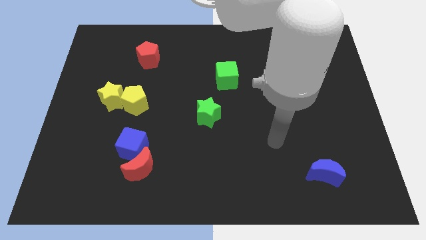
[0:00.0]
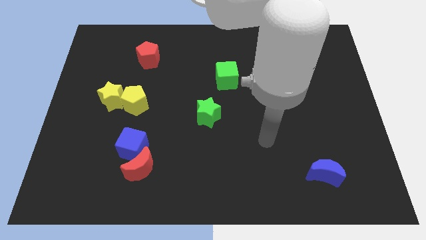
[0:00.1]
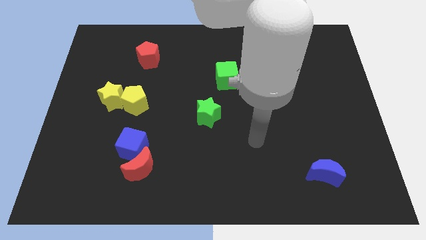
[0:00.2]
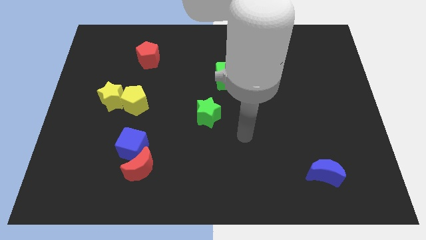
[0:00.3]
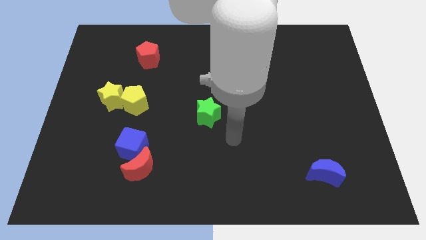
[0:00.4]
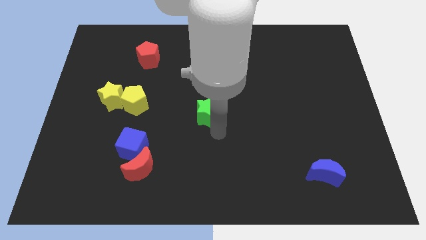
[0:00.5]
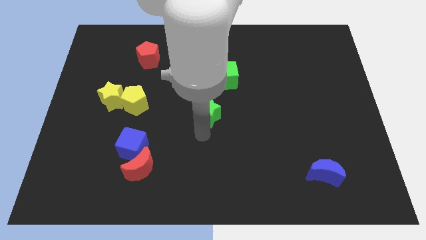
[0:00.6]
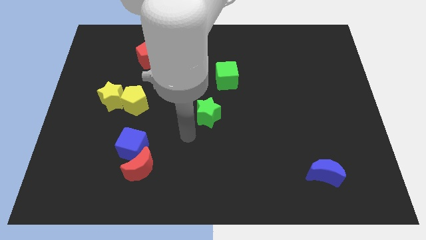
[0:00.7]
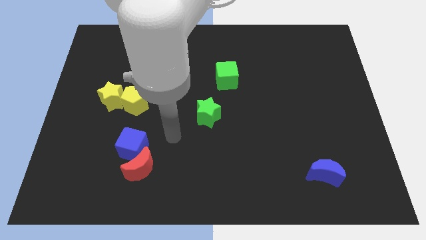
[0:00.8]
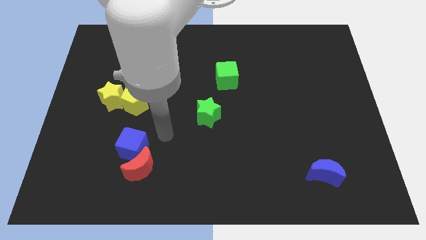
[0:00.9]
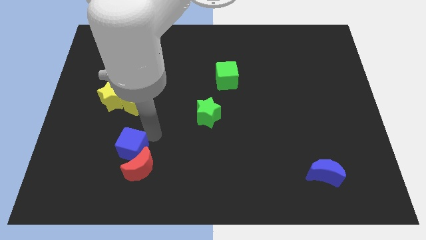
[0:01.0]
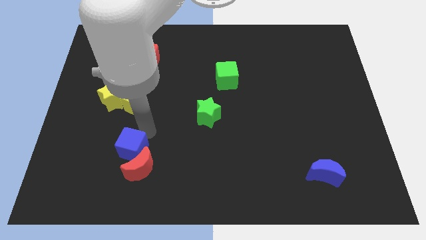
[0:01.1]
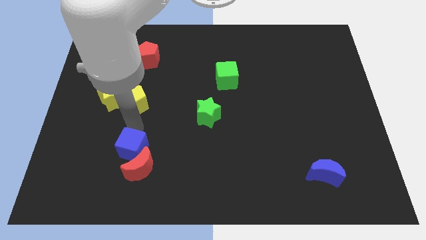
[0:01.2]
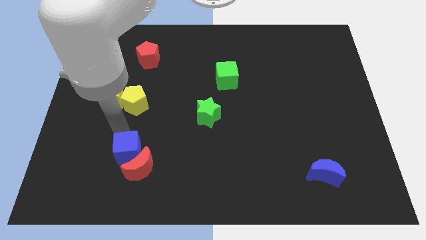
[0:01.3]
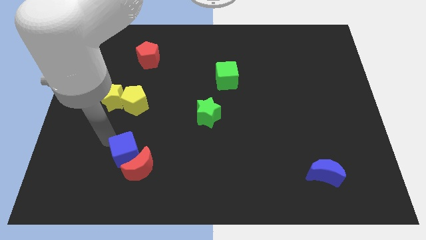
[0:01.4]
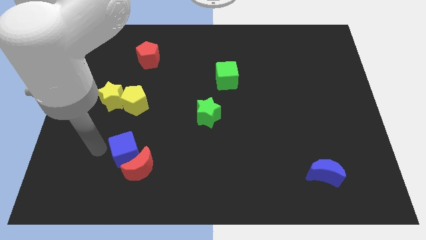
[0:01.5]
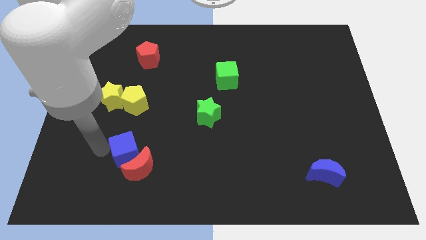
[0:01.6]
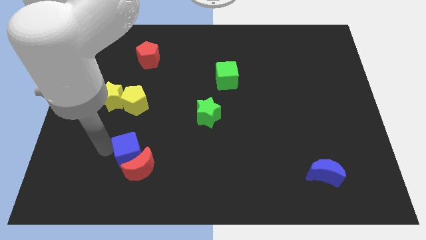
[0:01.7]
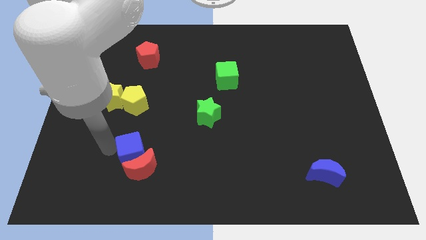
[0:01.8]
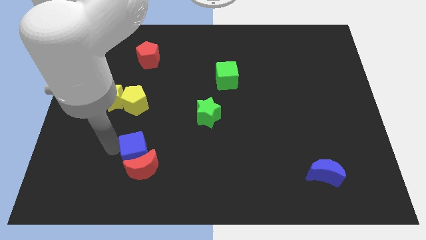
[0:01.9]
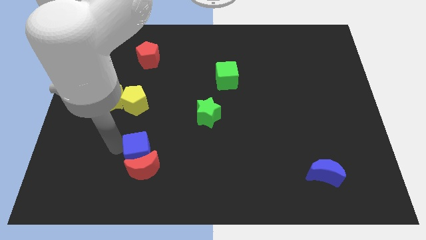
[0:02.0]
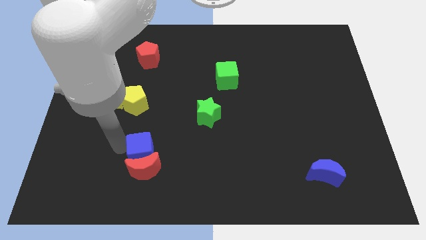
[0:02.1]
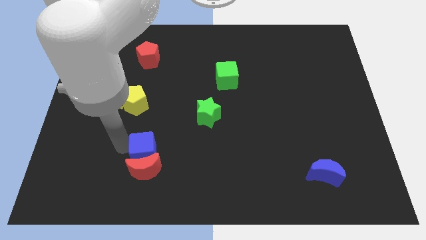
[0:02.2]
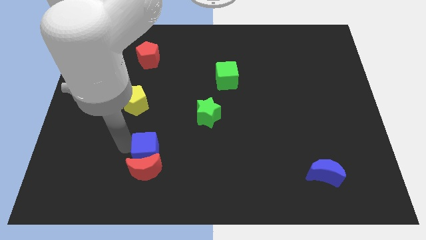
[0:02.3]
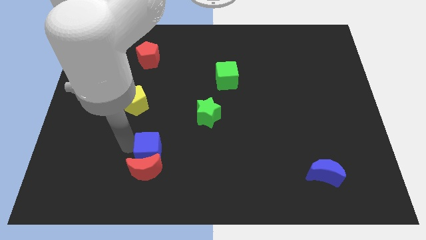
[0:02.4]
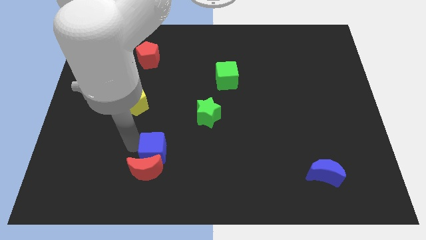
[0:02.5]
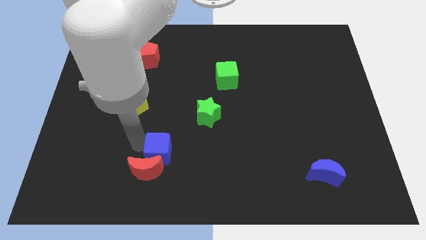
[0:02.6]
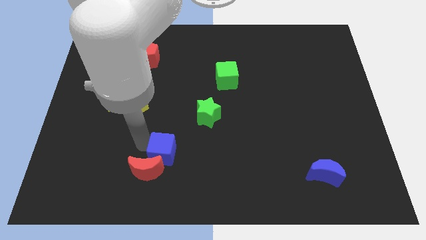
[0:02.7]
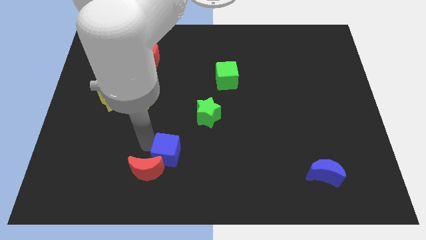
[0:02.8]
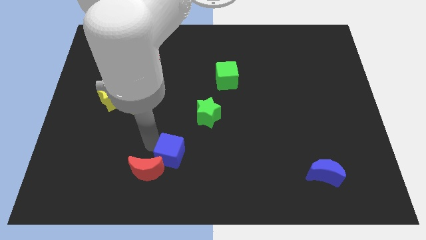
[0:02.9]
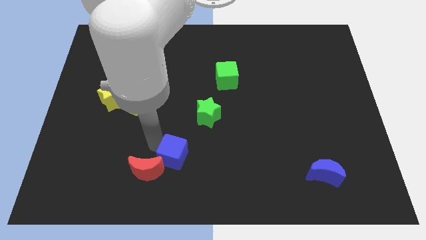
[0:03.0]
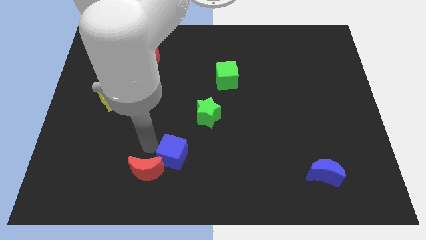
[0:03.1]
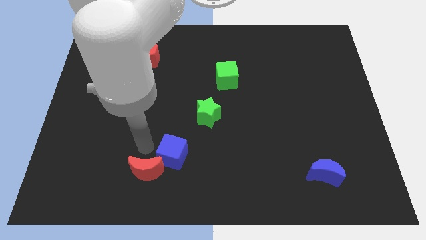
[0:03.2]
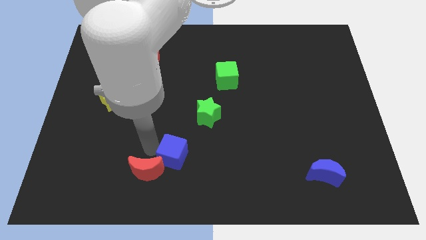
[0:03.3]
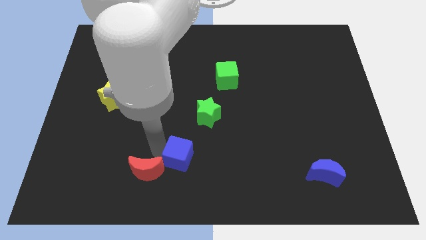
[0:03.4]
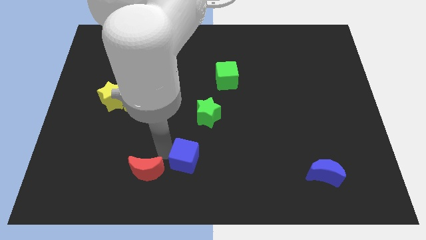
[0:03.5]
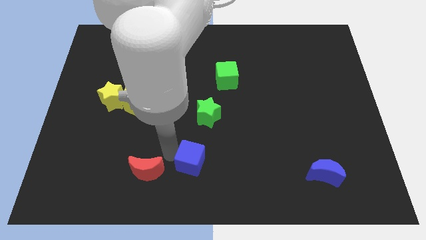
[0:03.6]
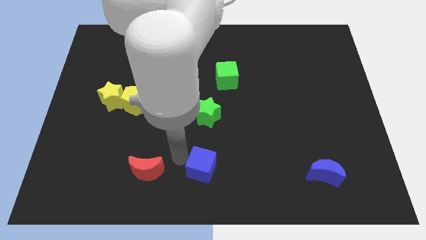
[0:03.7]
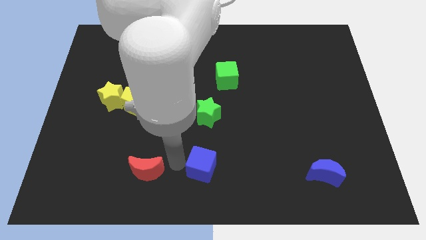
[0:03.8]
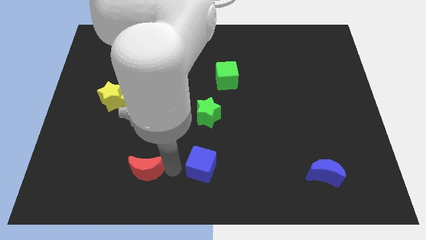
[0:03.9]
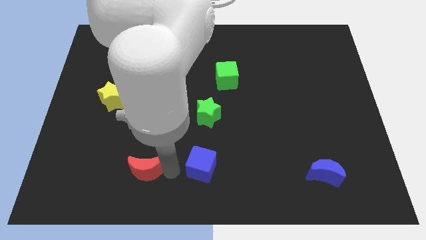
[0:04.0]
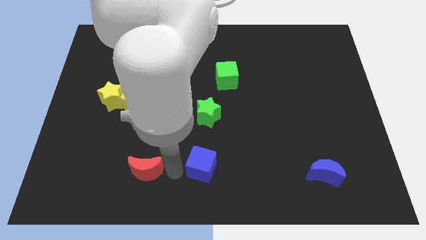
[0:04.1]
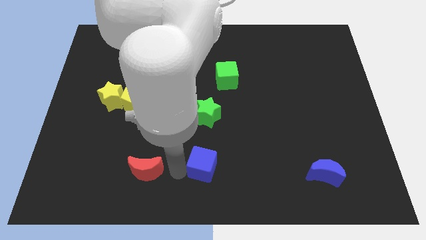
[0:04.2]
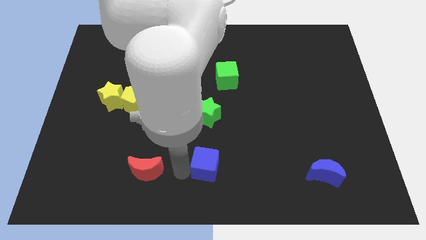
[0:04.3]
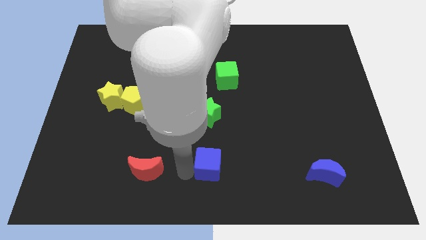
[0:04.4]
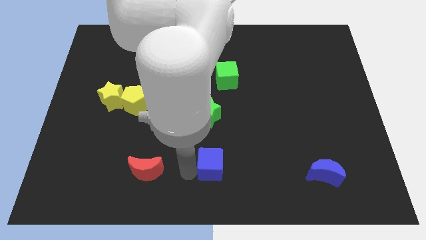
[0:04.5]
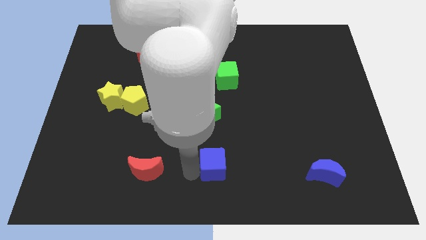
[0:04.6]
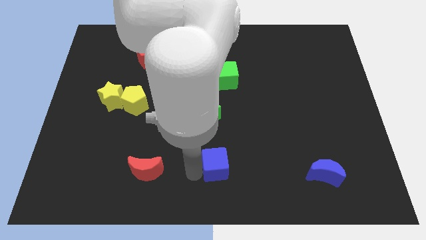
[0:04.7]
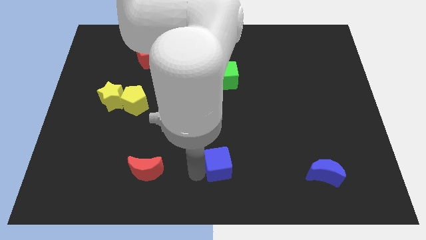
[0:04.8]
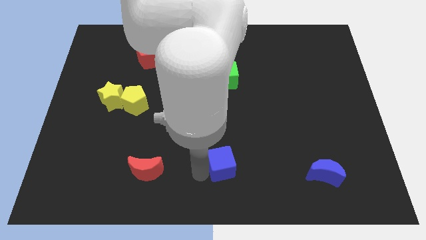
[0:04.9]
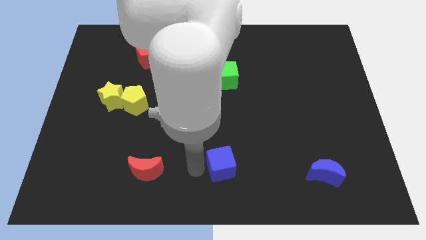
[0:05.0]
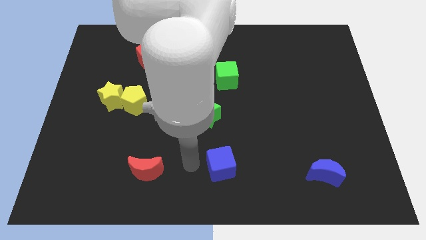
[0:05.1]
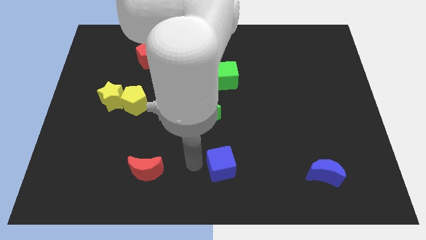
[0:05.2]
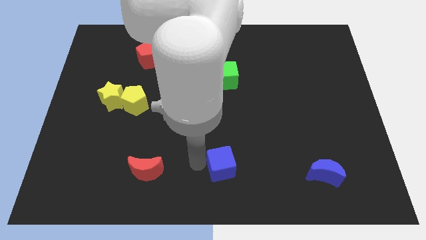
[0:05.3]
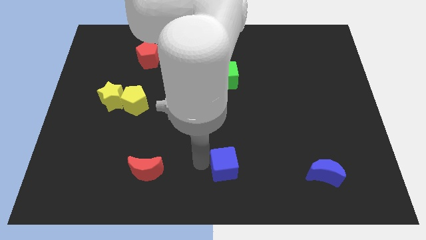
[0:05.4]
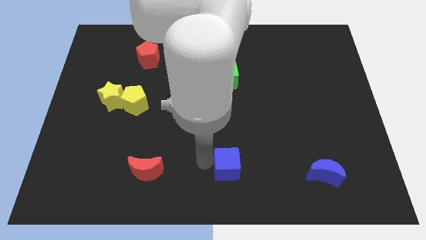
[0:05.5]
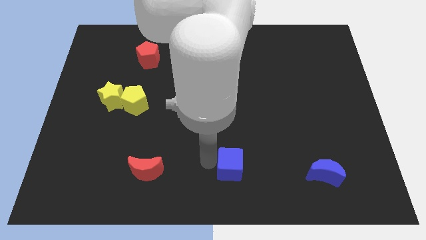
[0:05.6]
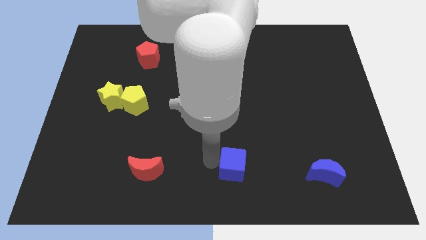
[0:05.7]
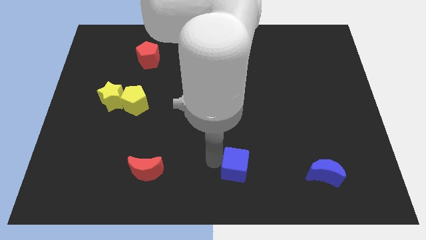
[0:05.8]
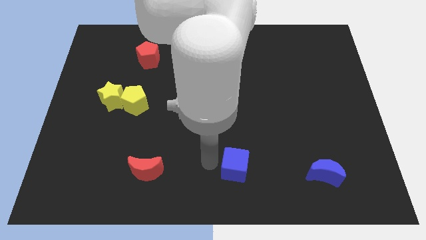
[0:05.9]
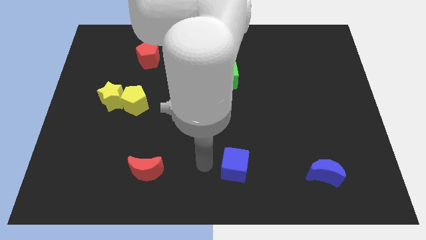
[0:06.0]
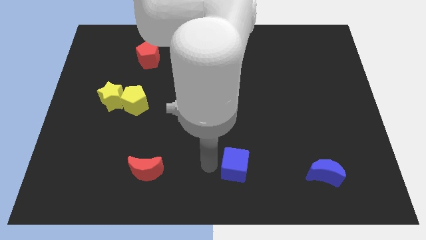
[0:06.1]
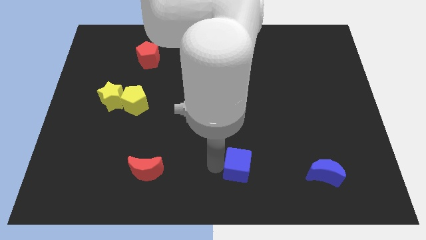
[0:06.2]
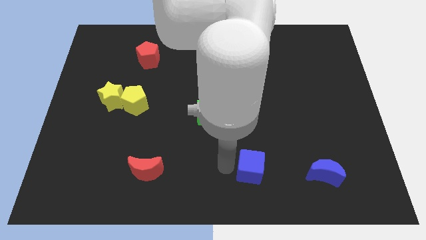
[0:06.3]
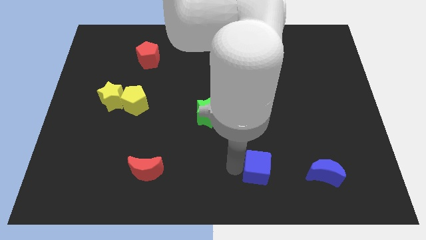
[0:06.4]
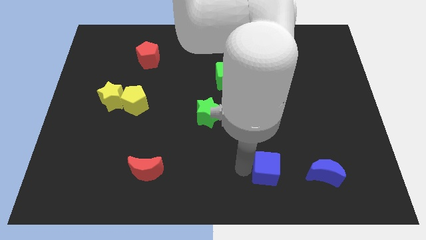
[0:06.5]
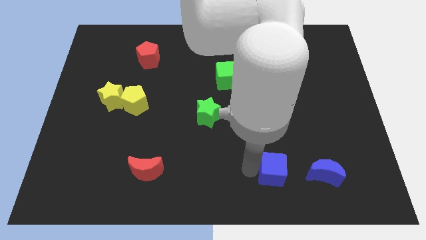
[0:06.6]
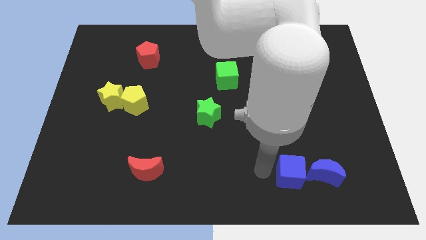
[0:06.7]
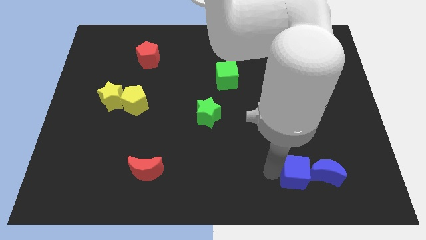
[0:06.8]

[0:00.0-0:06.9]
push the blue cube close to the blue moon
